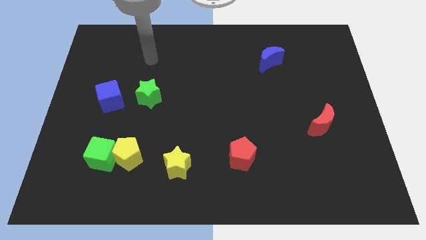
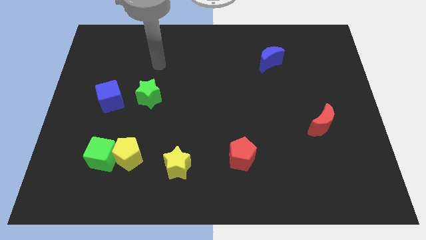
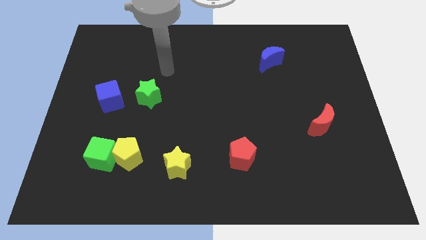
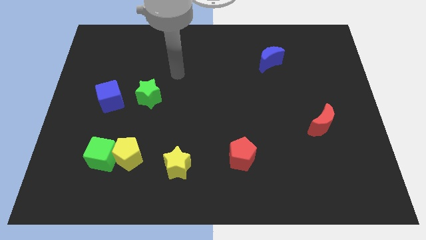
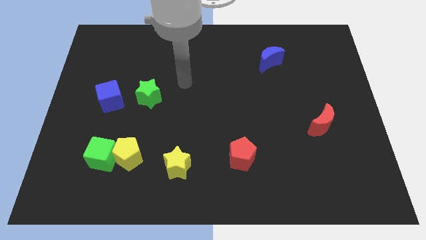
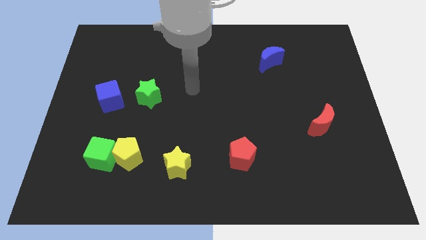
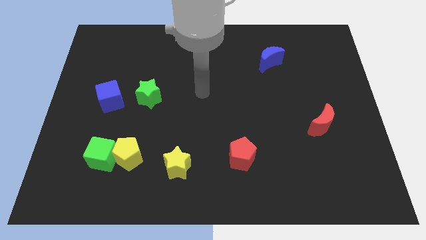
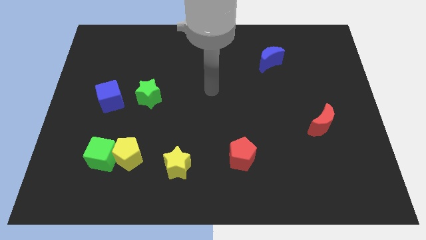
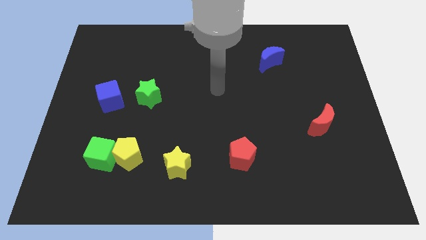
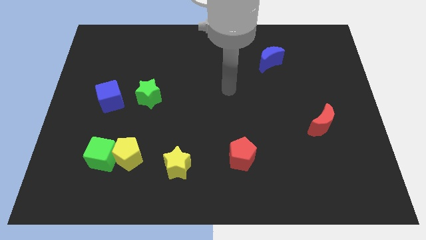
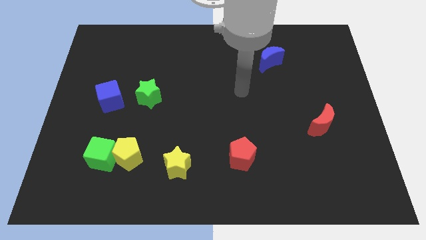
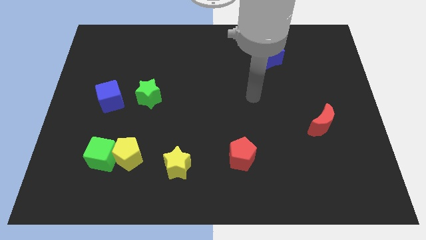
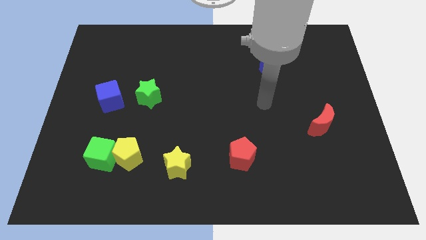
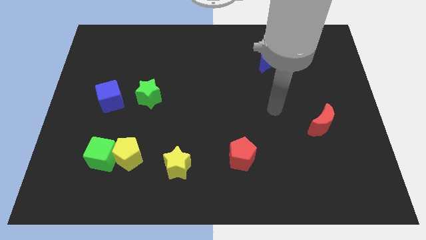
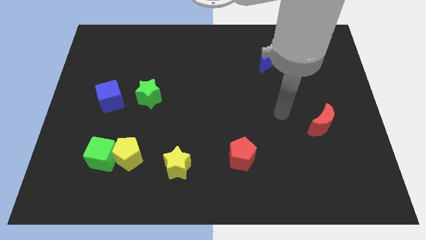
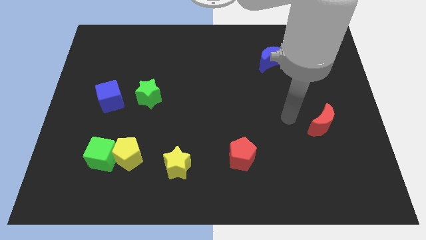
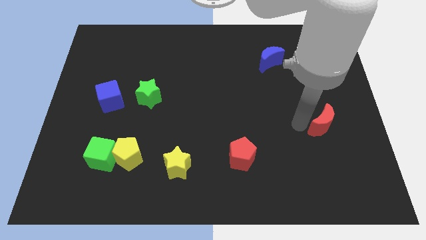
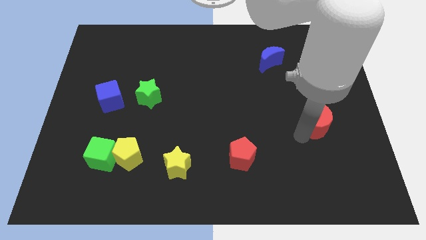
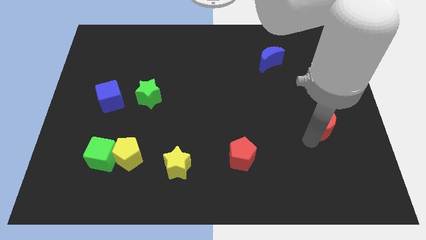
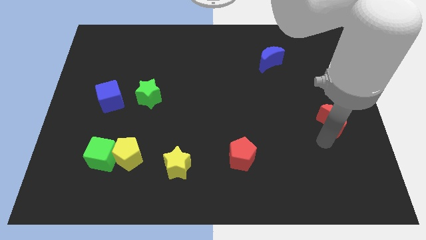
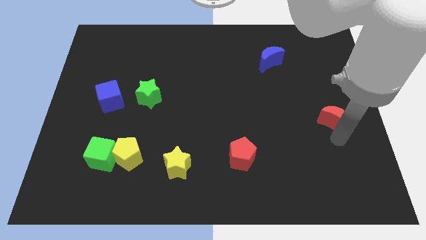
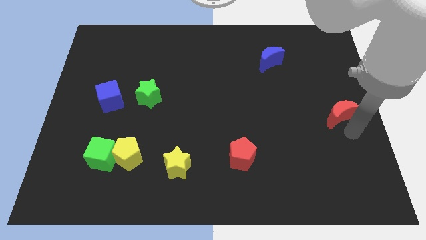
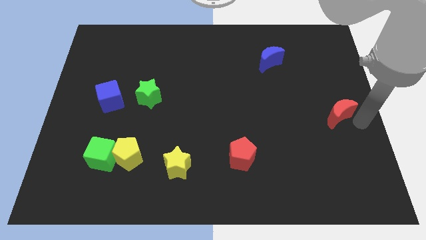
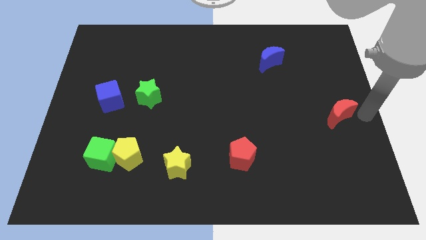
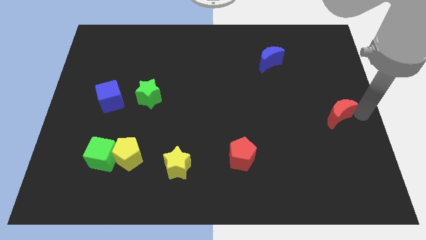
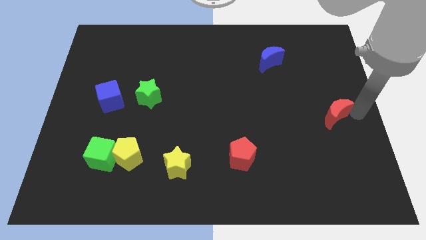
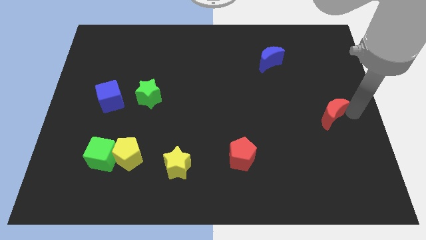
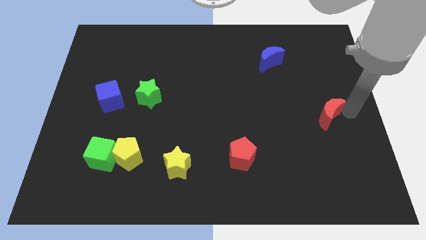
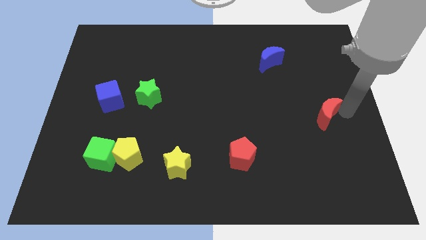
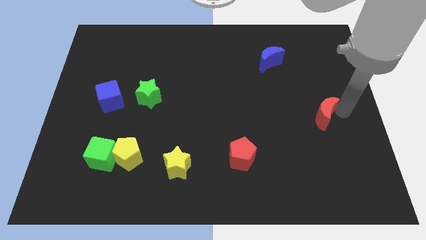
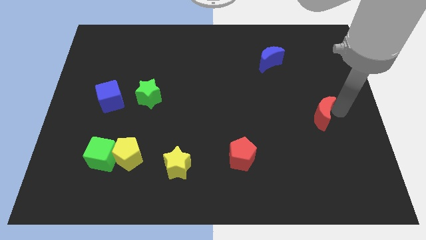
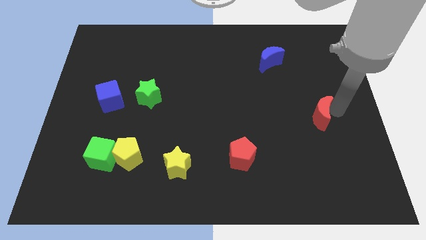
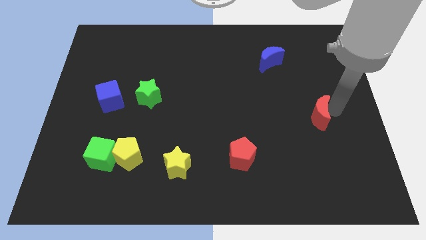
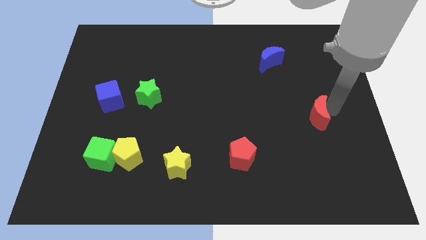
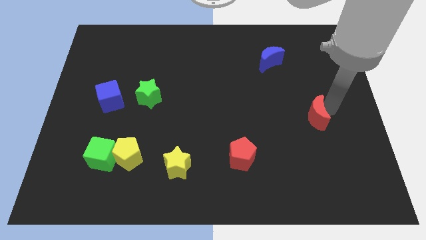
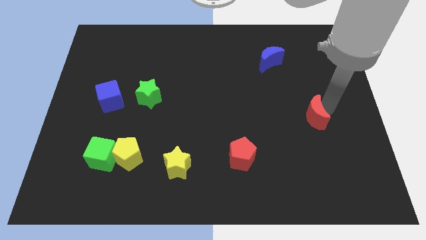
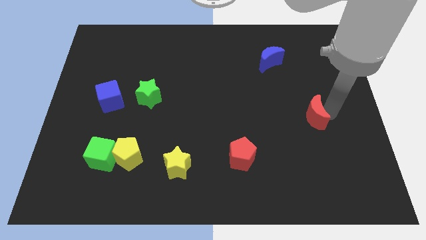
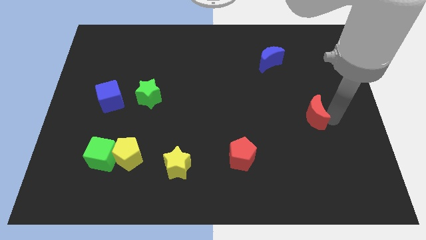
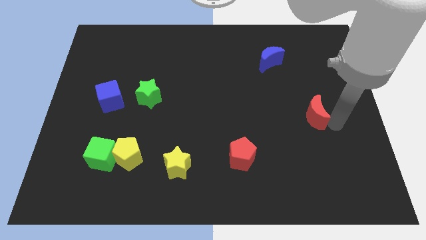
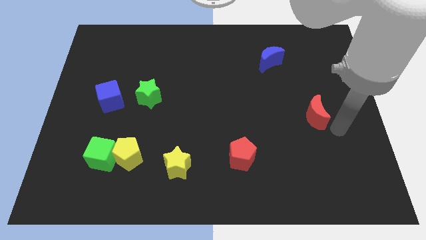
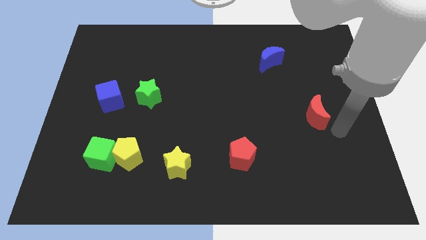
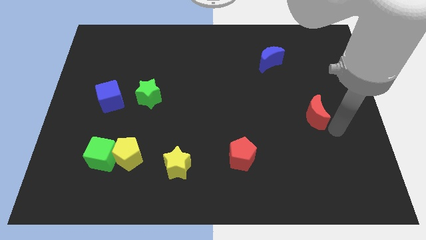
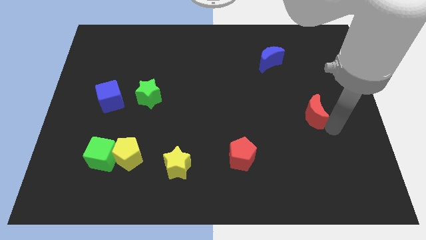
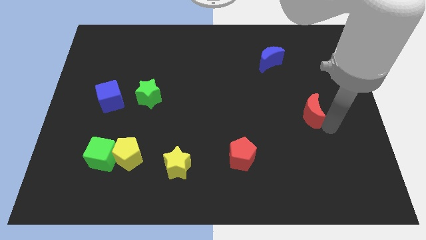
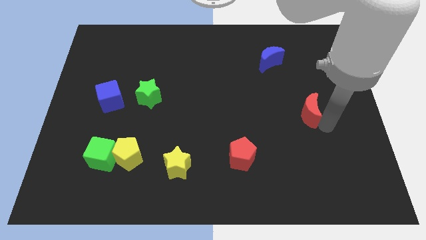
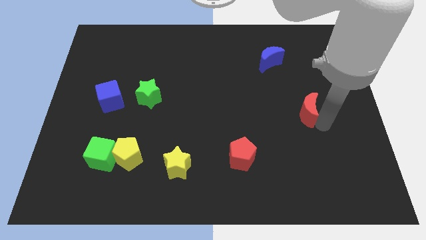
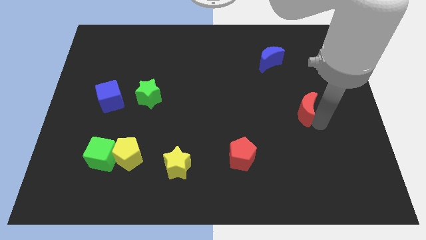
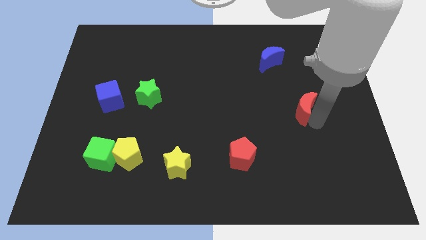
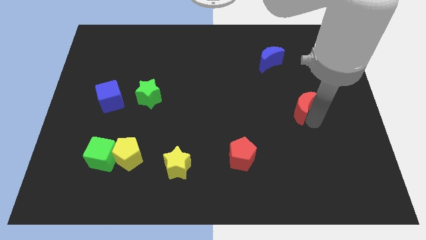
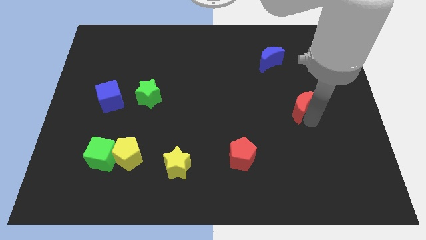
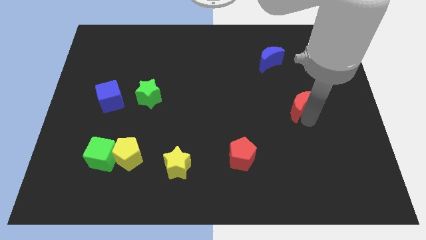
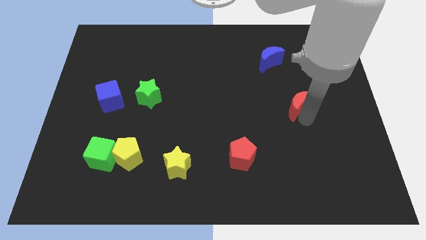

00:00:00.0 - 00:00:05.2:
push the red moon a little bit up and then left

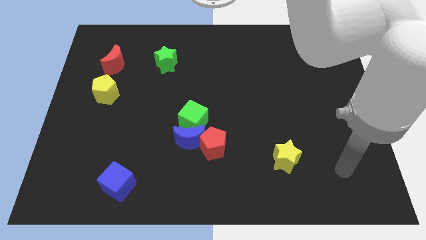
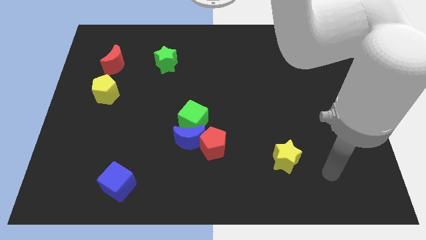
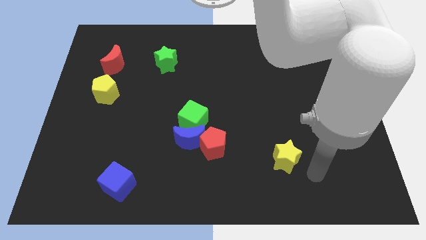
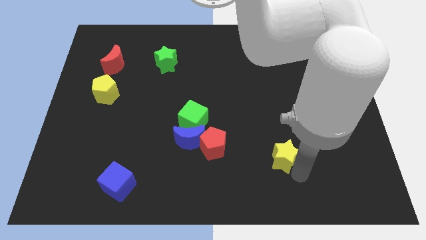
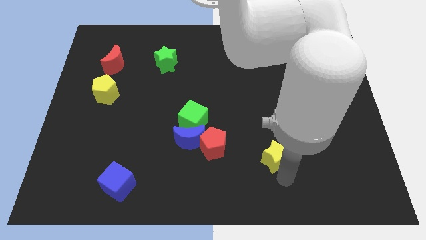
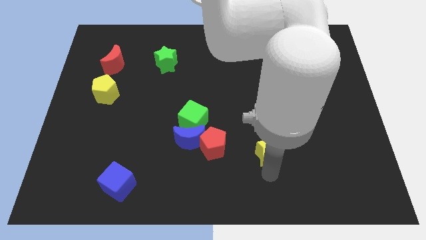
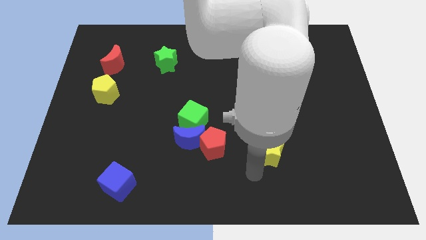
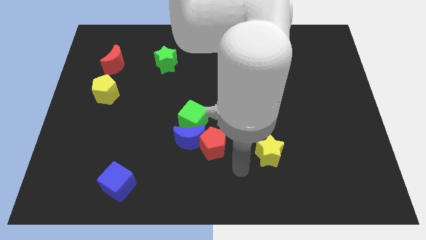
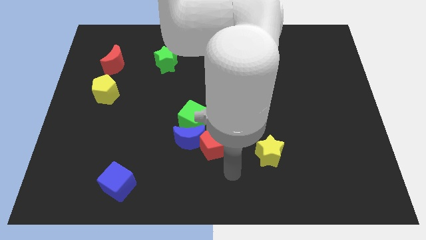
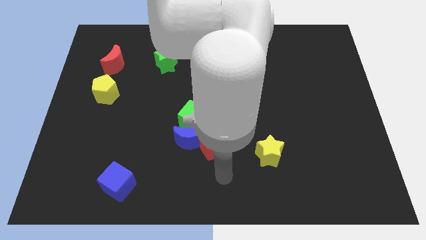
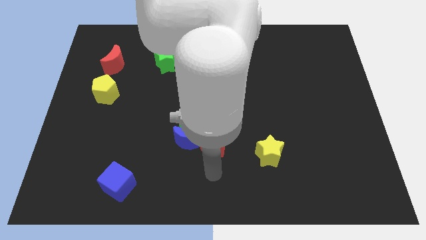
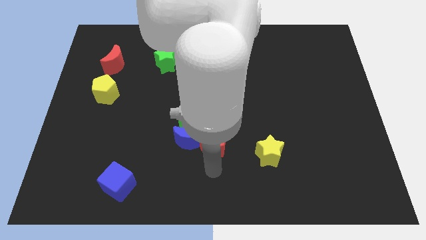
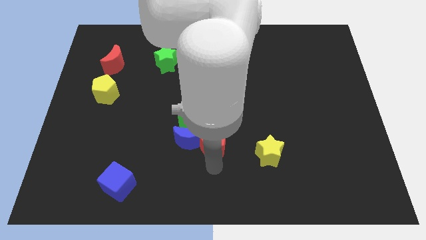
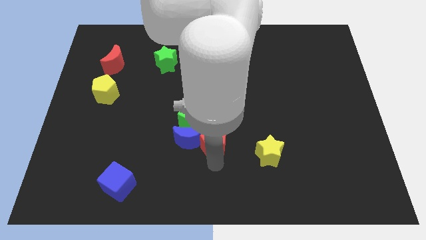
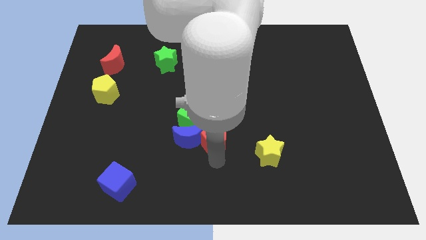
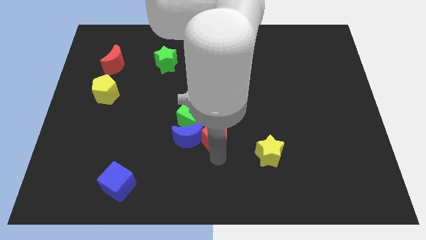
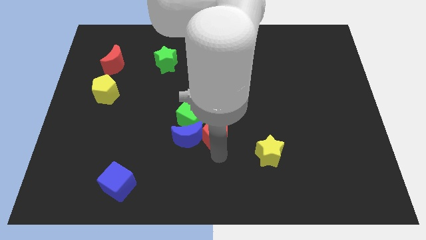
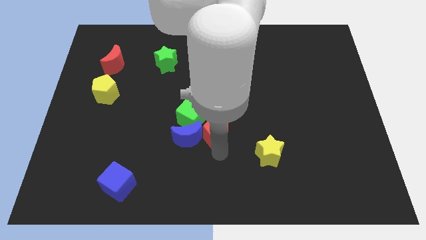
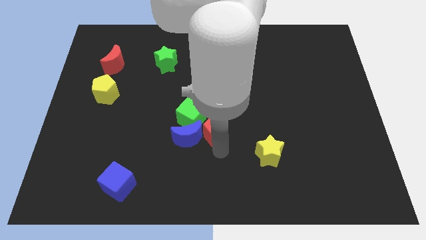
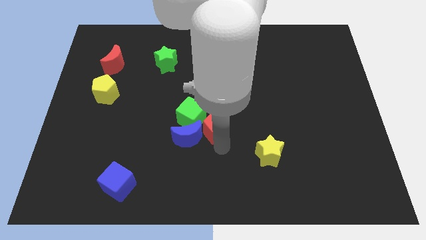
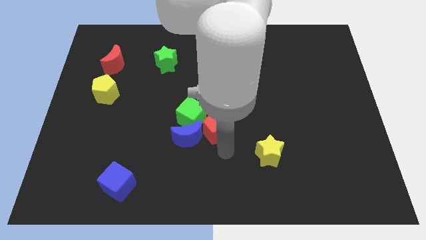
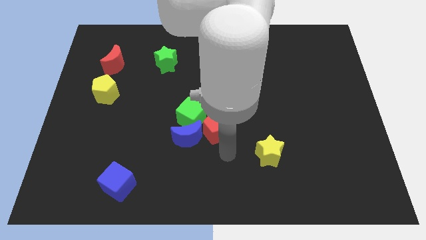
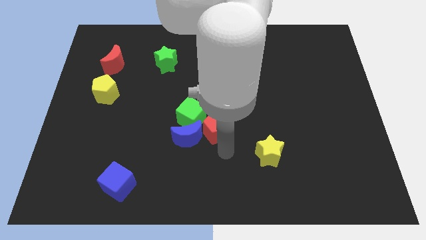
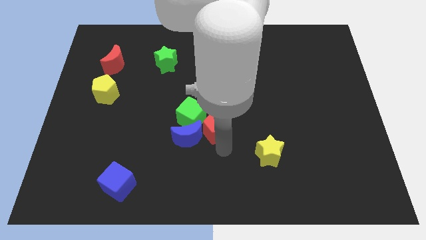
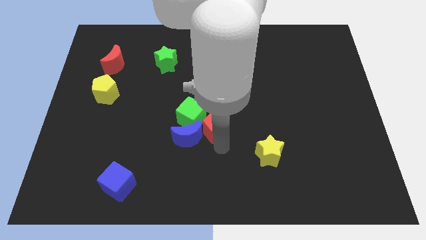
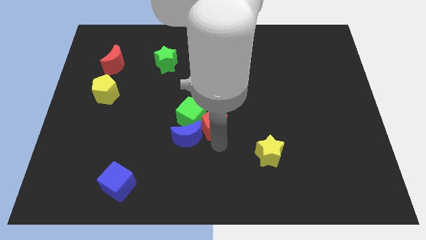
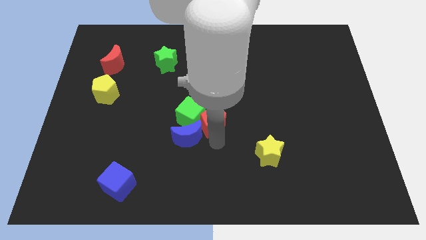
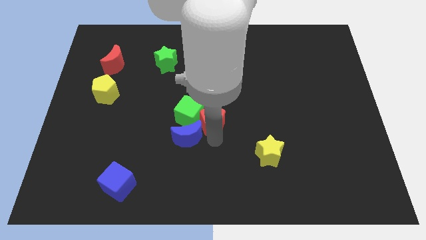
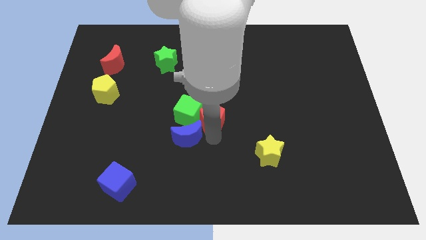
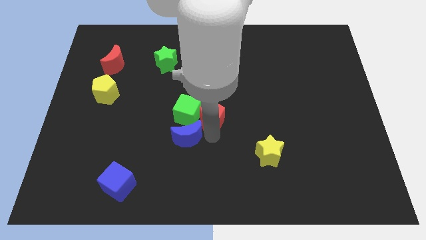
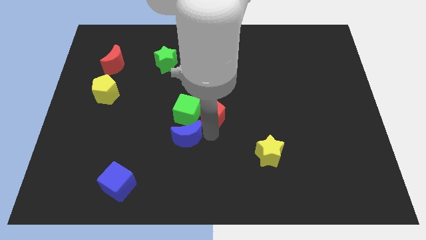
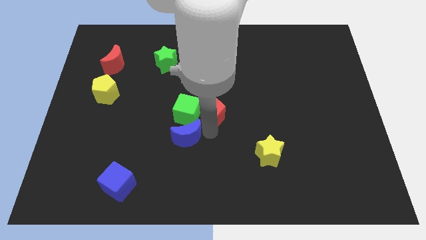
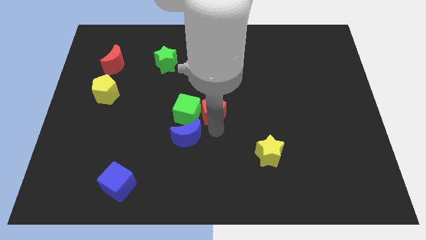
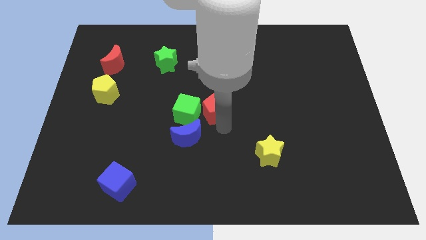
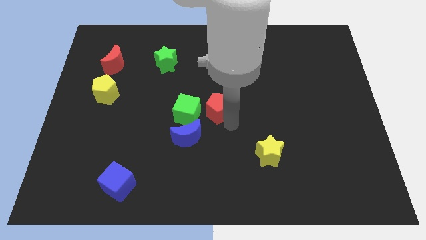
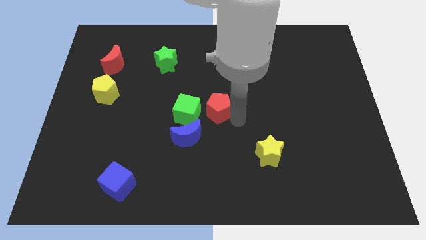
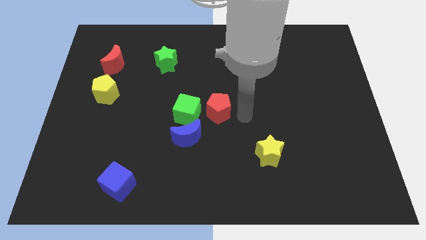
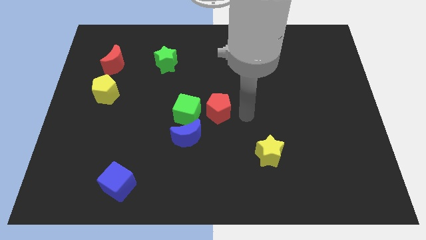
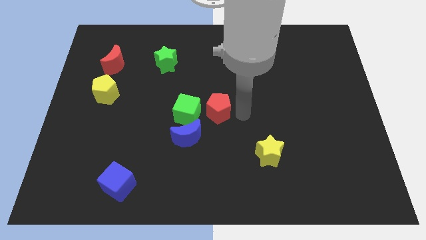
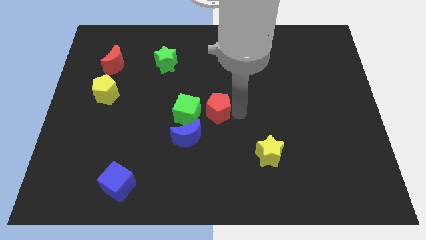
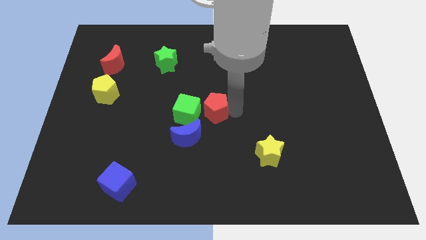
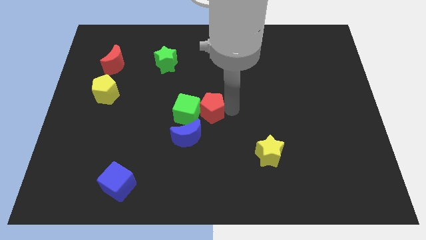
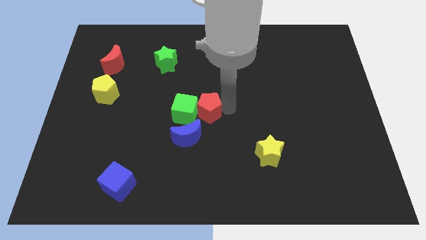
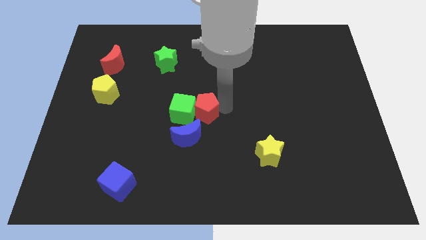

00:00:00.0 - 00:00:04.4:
slightly slide the red pentagon up and left diagonally
